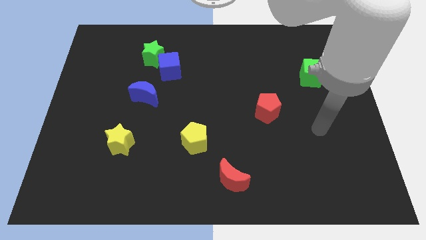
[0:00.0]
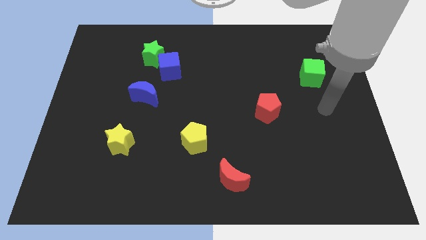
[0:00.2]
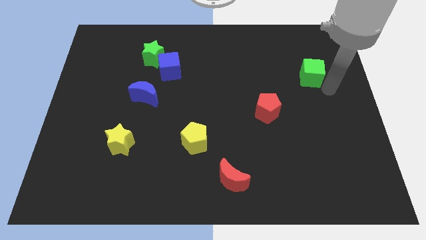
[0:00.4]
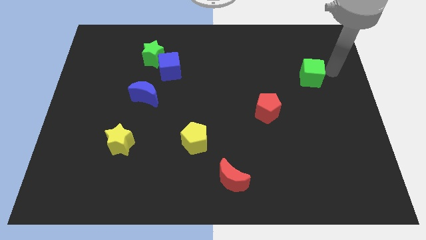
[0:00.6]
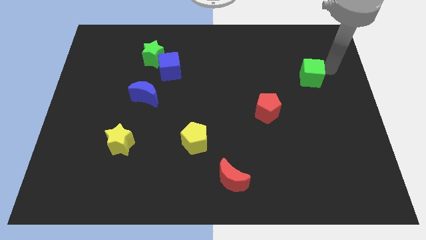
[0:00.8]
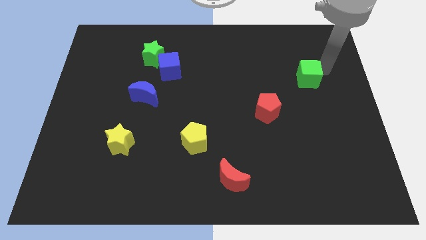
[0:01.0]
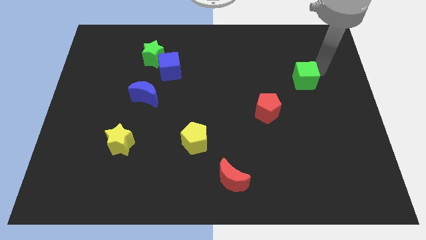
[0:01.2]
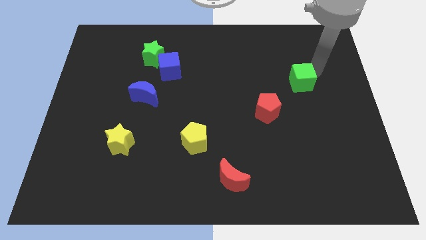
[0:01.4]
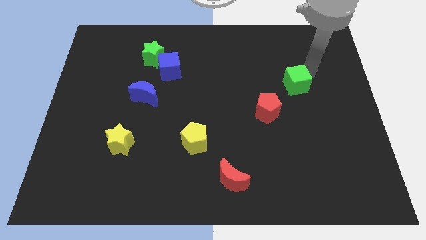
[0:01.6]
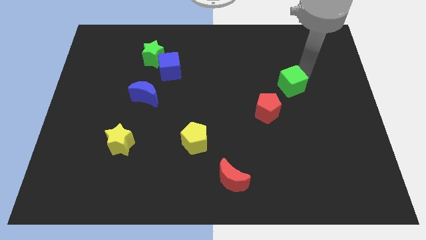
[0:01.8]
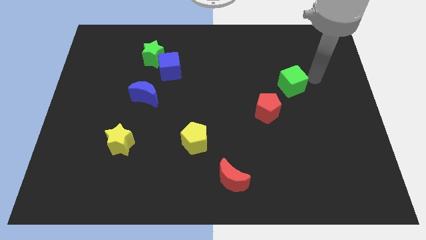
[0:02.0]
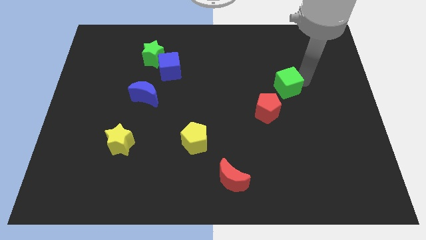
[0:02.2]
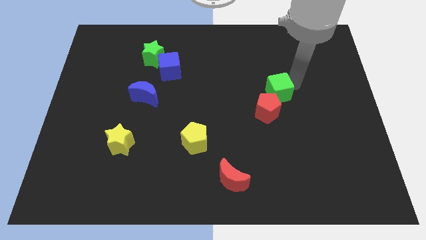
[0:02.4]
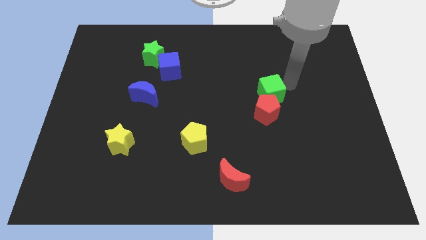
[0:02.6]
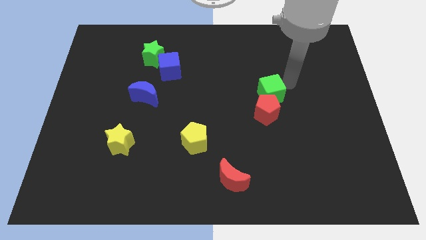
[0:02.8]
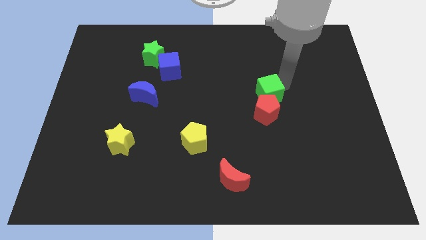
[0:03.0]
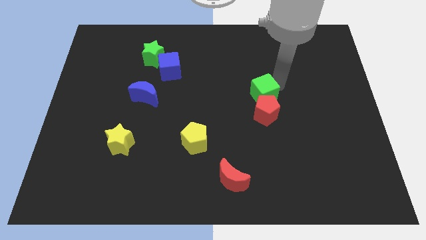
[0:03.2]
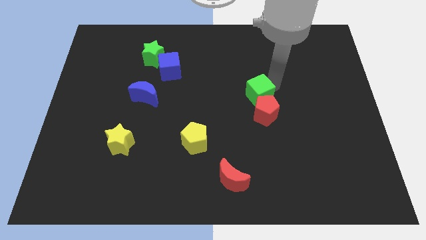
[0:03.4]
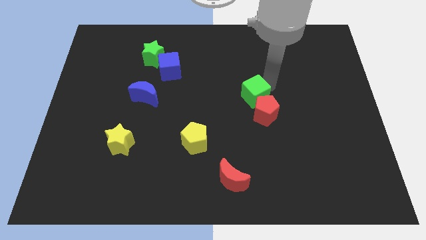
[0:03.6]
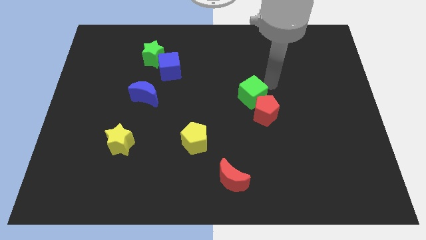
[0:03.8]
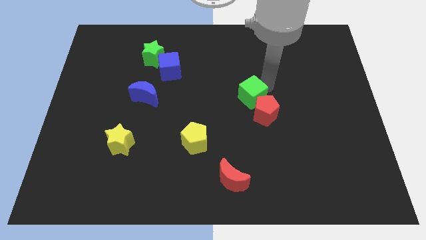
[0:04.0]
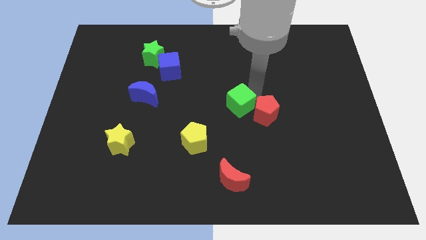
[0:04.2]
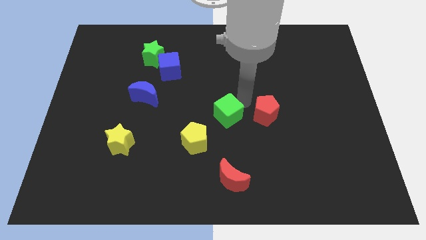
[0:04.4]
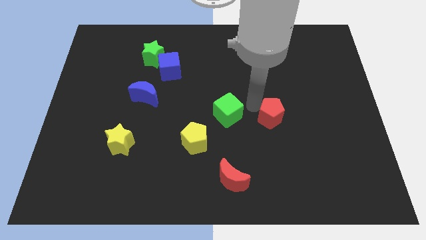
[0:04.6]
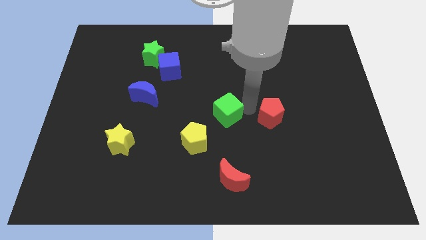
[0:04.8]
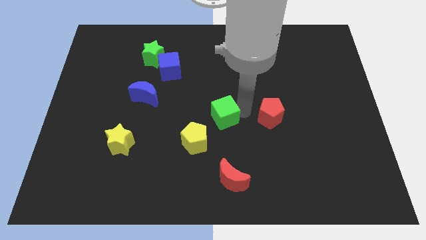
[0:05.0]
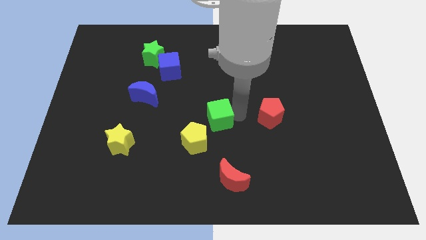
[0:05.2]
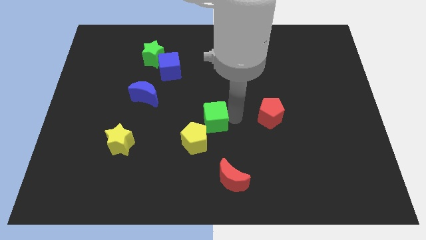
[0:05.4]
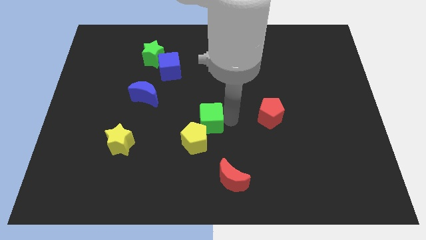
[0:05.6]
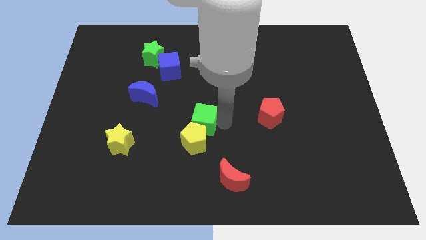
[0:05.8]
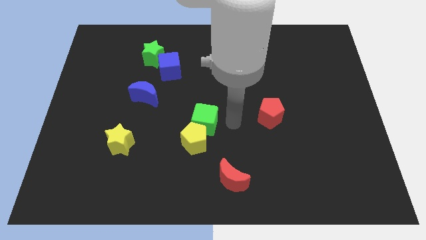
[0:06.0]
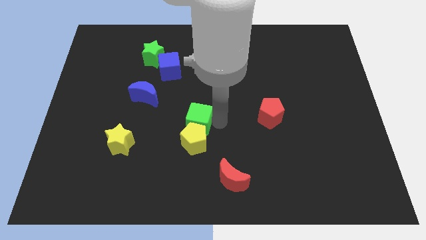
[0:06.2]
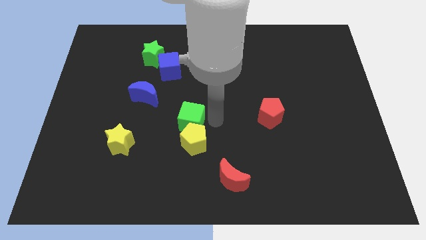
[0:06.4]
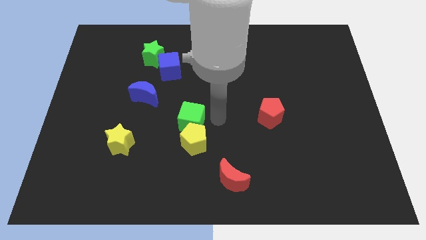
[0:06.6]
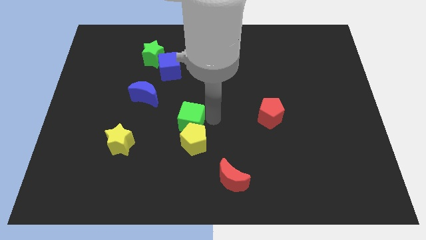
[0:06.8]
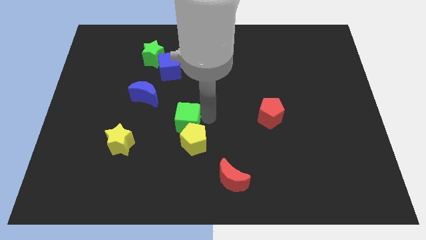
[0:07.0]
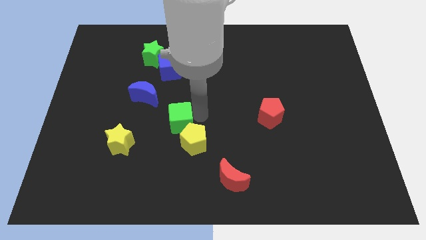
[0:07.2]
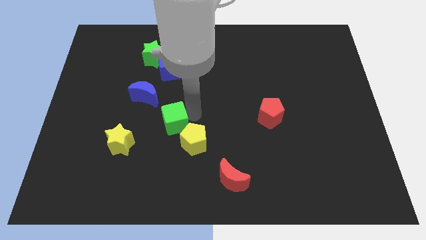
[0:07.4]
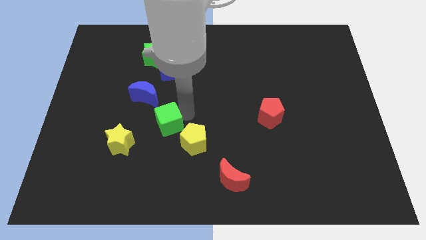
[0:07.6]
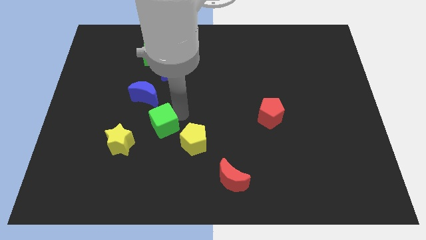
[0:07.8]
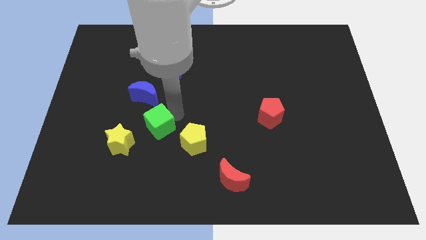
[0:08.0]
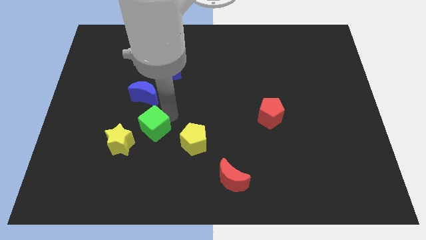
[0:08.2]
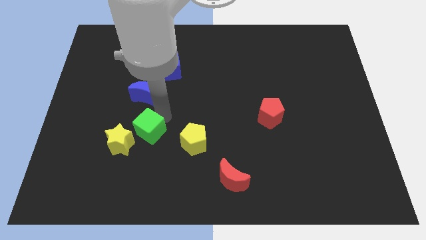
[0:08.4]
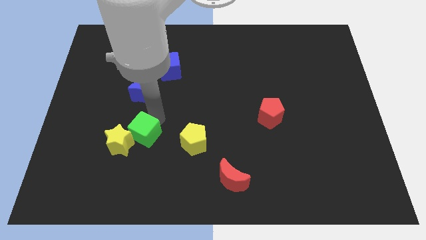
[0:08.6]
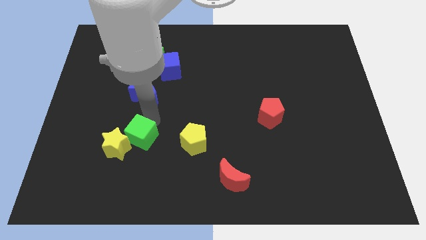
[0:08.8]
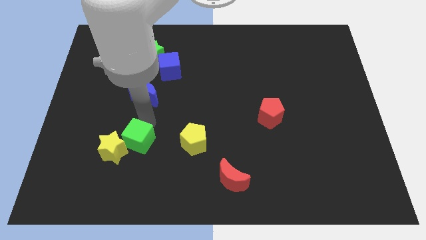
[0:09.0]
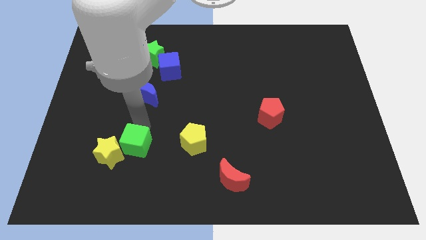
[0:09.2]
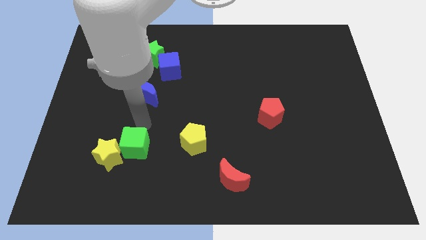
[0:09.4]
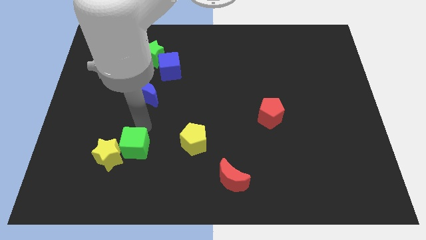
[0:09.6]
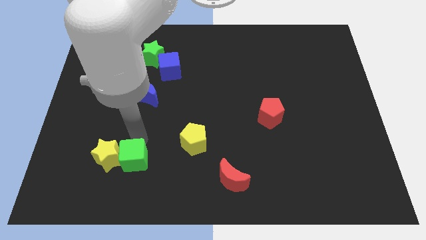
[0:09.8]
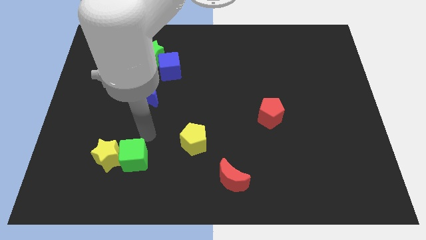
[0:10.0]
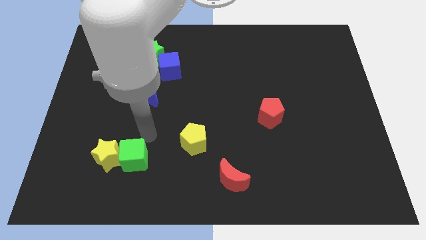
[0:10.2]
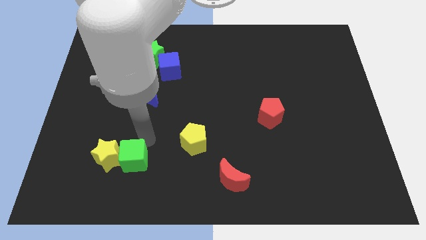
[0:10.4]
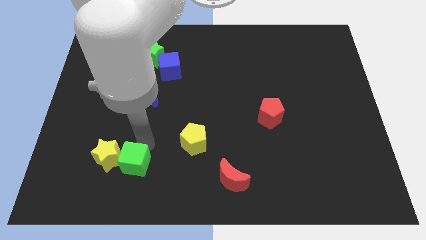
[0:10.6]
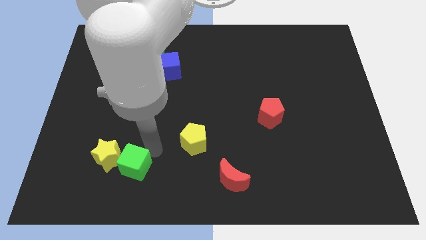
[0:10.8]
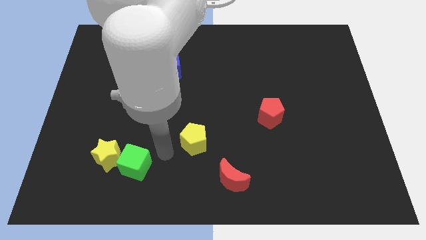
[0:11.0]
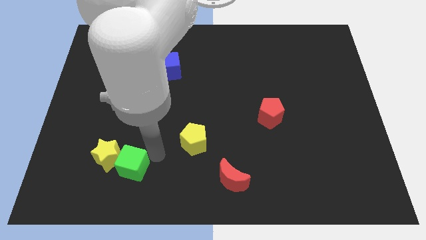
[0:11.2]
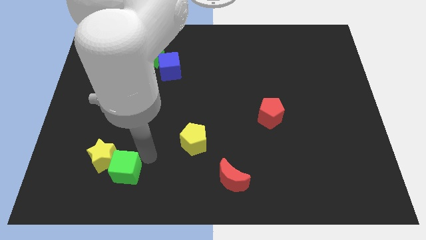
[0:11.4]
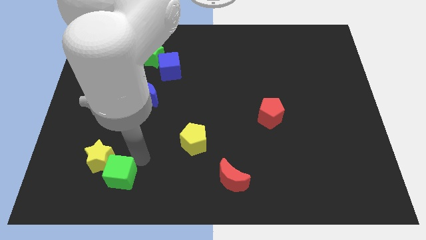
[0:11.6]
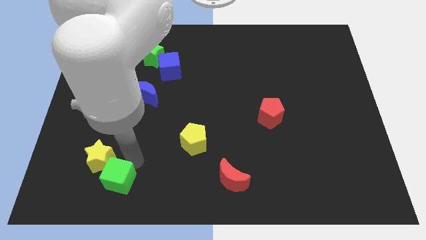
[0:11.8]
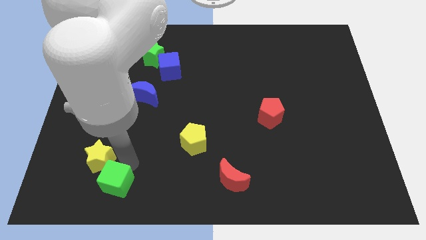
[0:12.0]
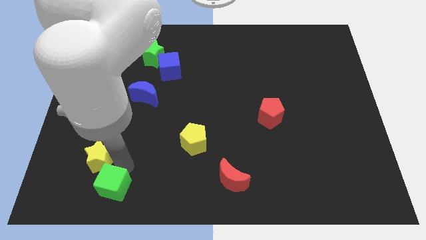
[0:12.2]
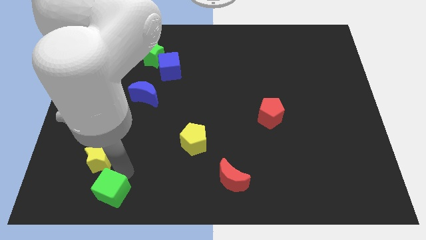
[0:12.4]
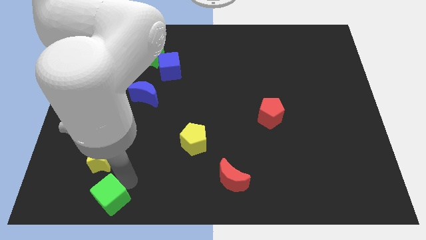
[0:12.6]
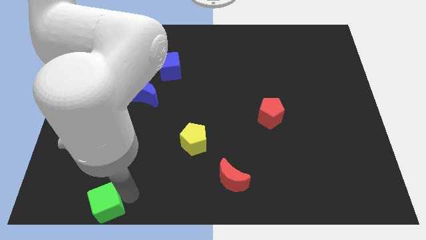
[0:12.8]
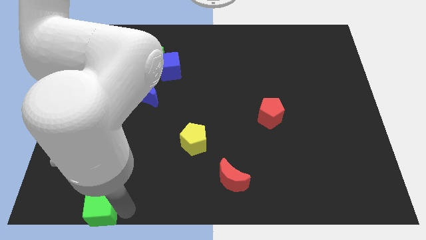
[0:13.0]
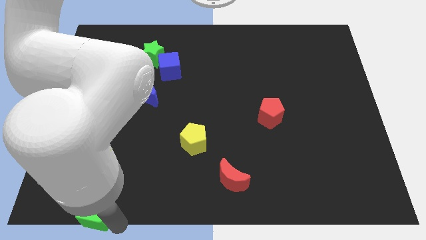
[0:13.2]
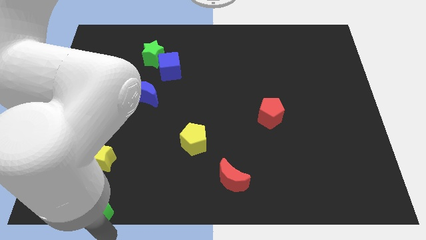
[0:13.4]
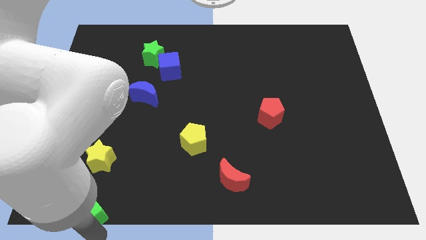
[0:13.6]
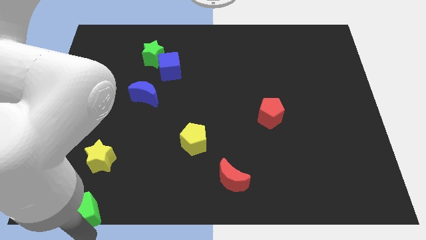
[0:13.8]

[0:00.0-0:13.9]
slide the green cube to the bottom left corner

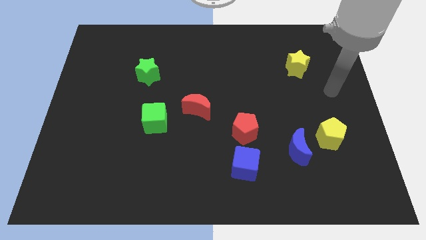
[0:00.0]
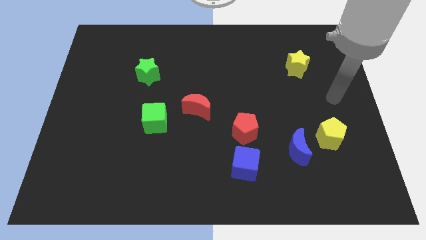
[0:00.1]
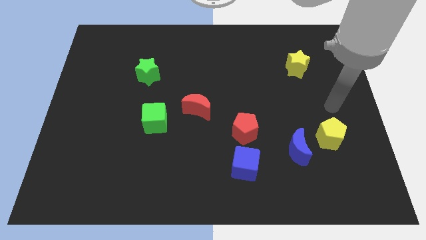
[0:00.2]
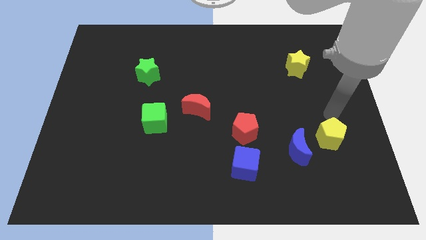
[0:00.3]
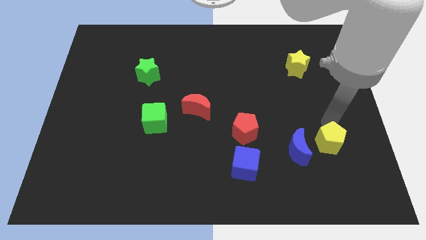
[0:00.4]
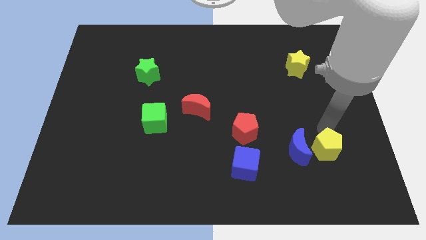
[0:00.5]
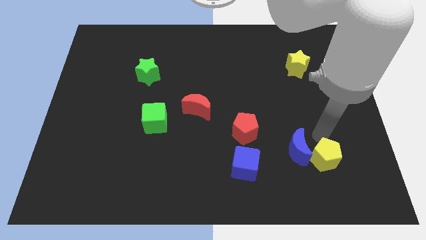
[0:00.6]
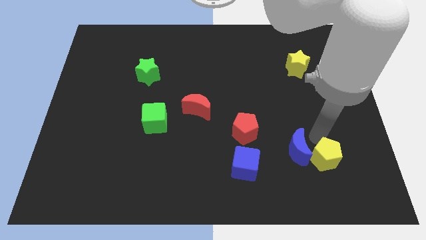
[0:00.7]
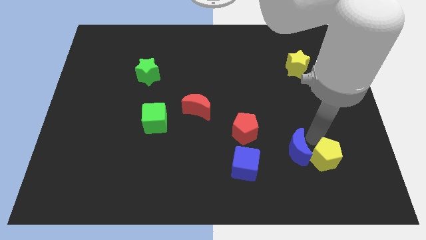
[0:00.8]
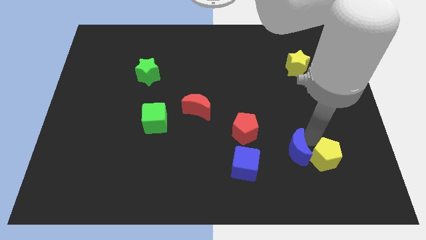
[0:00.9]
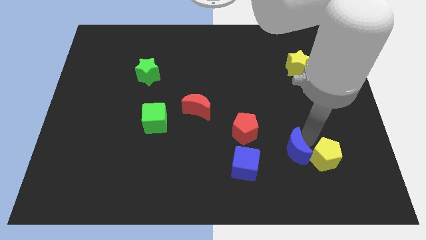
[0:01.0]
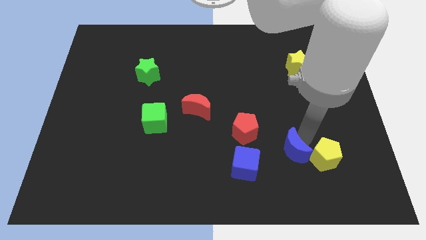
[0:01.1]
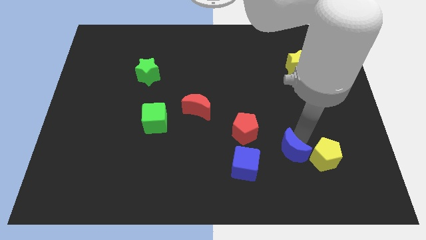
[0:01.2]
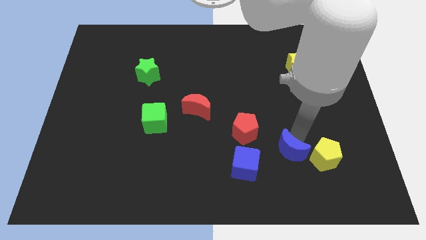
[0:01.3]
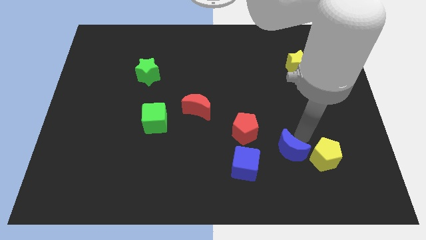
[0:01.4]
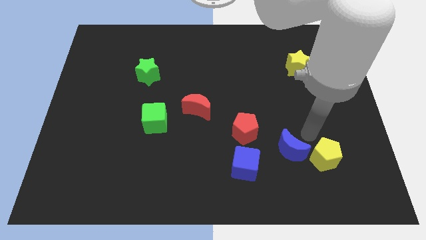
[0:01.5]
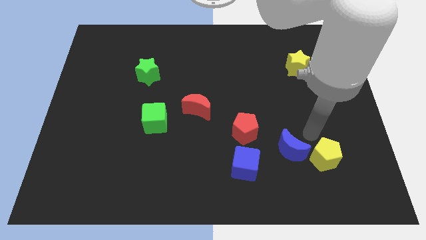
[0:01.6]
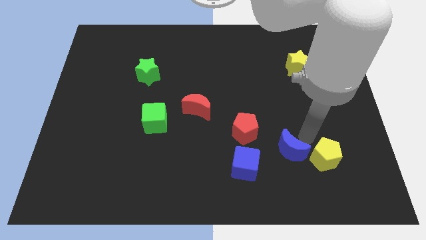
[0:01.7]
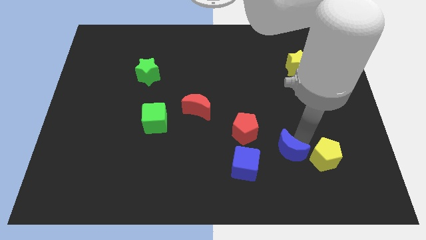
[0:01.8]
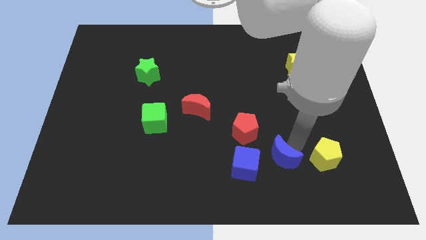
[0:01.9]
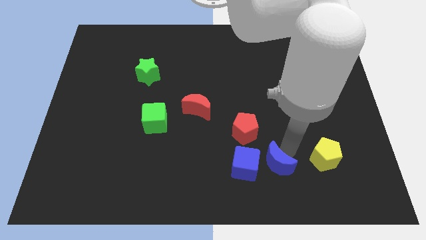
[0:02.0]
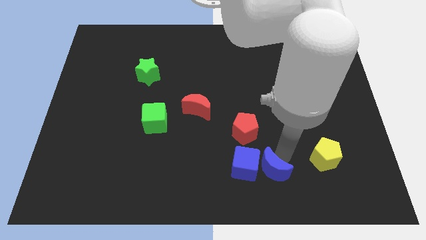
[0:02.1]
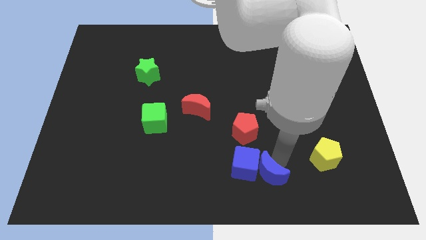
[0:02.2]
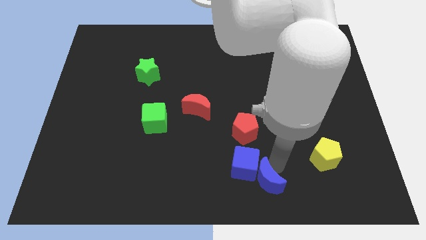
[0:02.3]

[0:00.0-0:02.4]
put the blue moon to the bottom side
